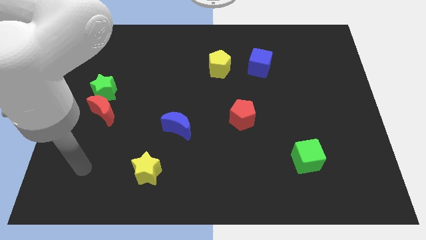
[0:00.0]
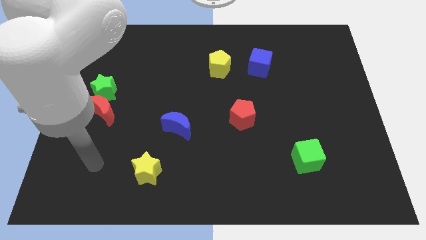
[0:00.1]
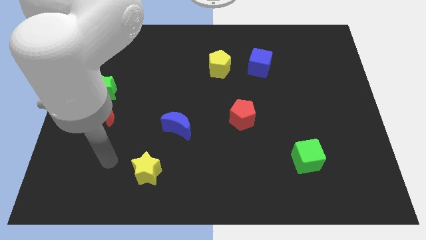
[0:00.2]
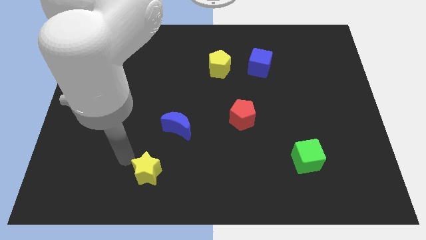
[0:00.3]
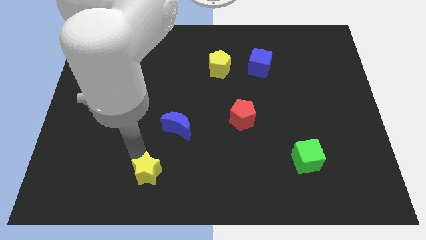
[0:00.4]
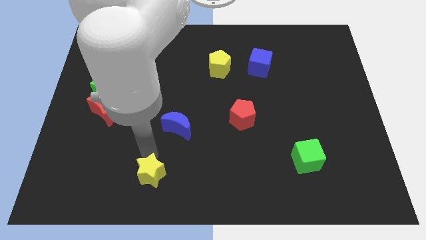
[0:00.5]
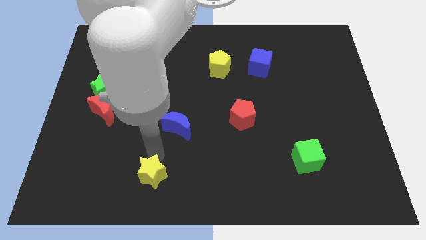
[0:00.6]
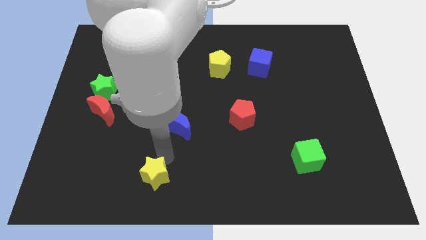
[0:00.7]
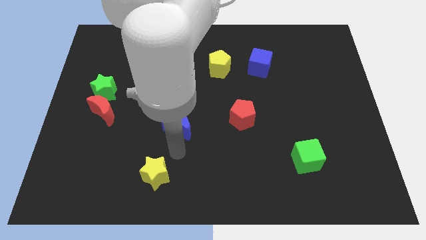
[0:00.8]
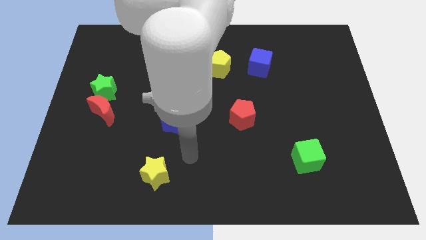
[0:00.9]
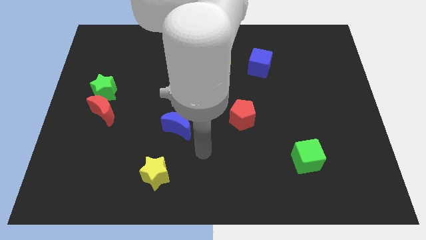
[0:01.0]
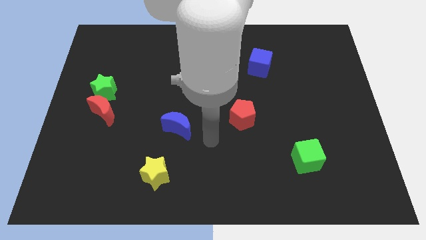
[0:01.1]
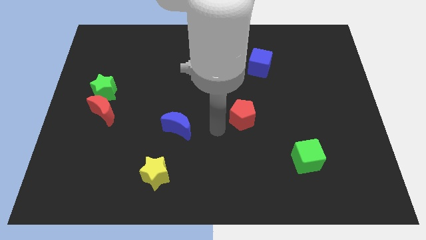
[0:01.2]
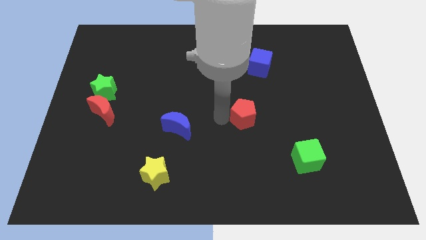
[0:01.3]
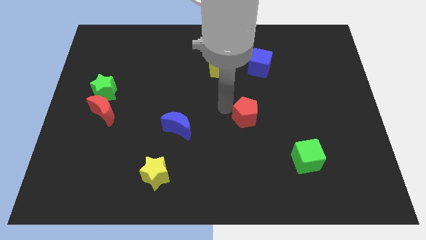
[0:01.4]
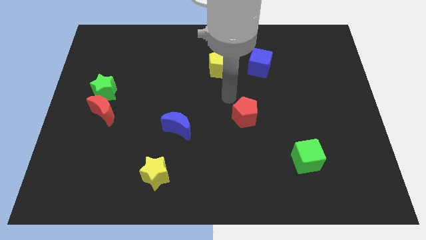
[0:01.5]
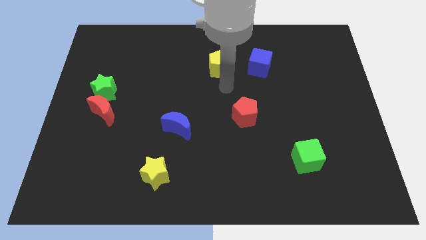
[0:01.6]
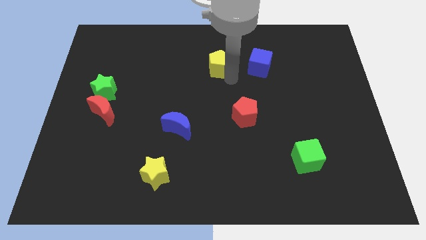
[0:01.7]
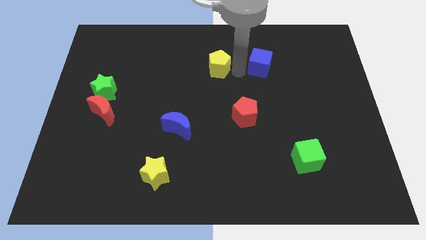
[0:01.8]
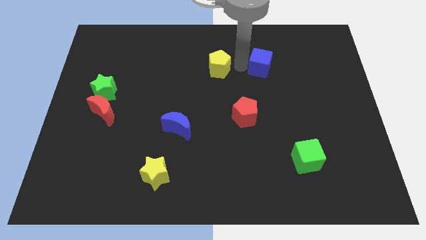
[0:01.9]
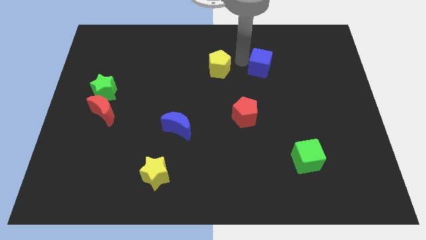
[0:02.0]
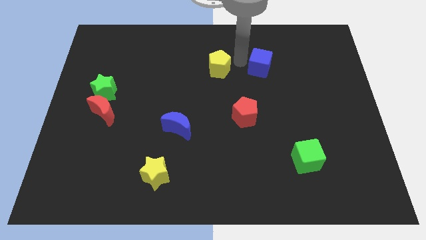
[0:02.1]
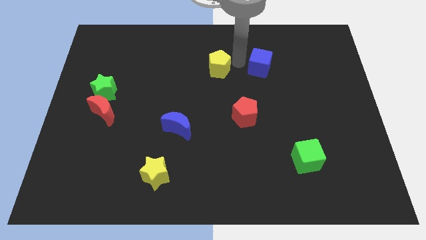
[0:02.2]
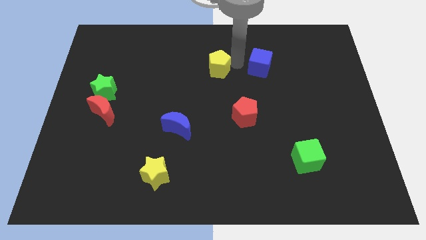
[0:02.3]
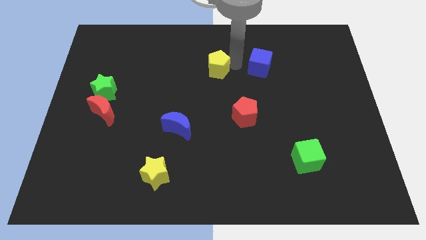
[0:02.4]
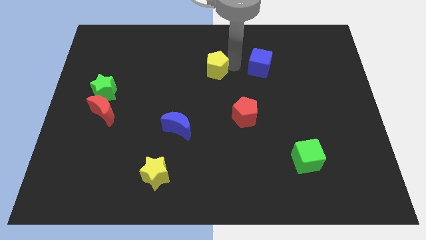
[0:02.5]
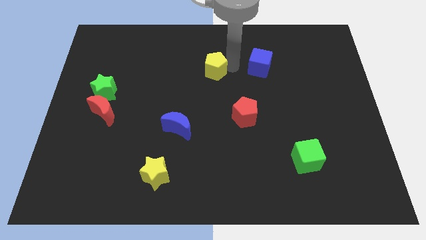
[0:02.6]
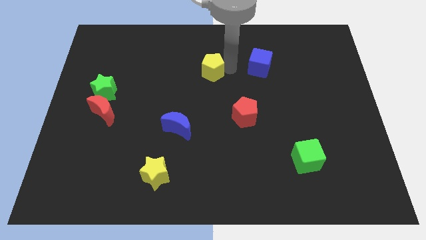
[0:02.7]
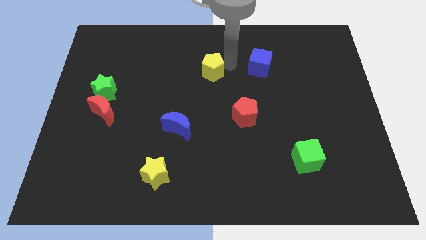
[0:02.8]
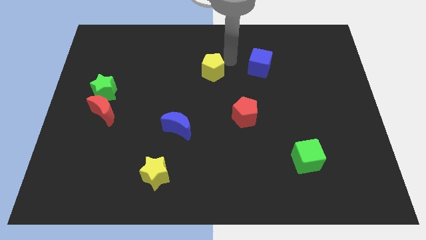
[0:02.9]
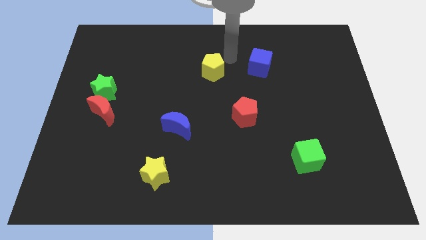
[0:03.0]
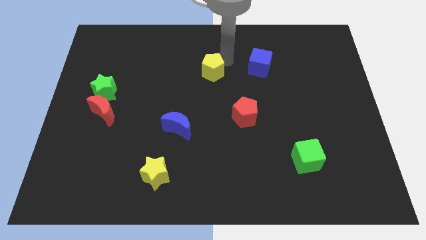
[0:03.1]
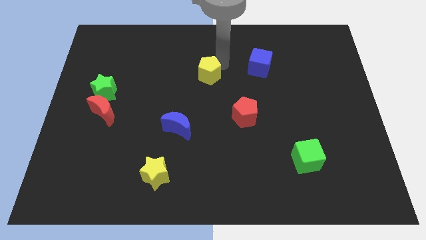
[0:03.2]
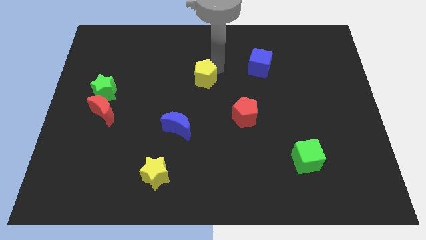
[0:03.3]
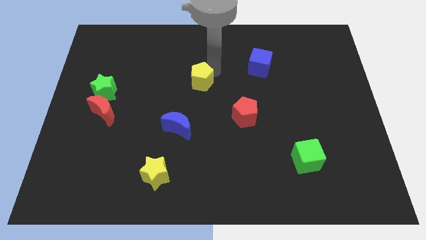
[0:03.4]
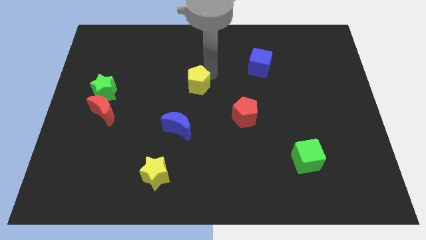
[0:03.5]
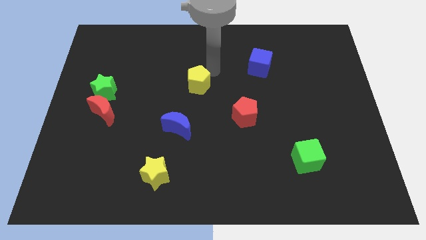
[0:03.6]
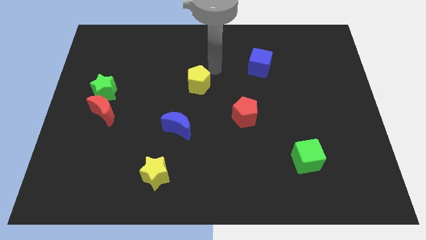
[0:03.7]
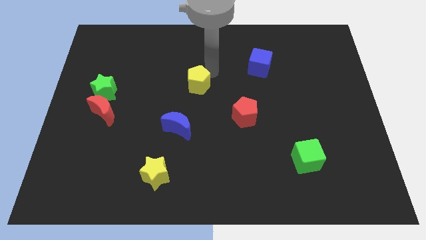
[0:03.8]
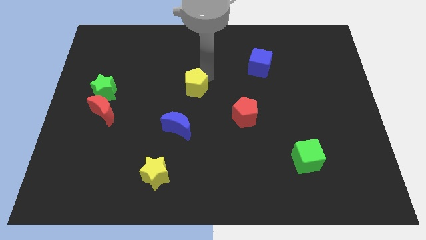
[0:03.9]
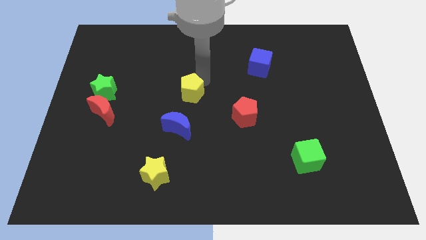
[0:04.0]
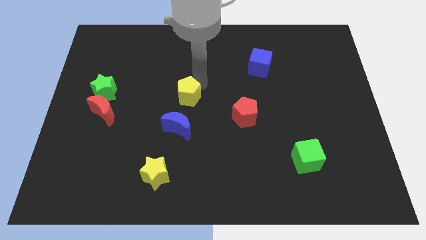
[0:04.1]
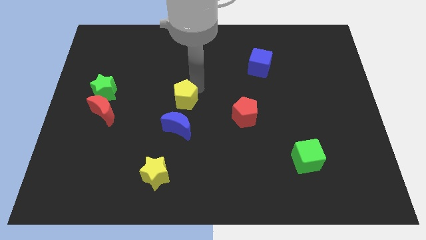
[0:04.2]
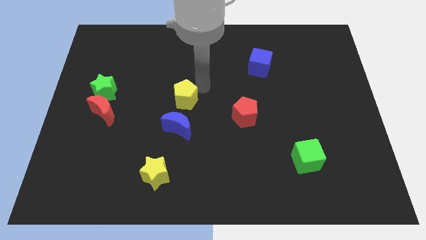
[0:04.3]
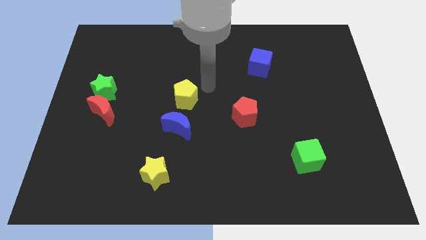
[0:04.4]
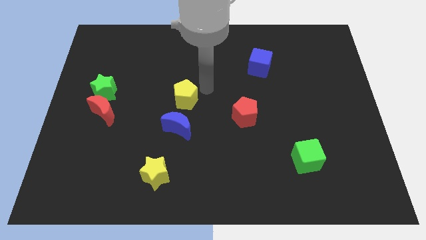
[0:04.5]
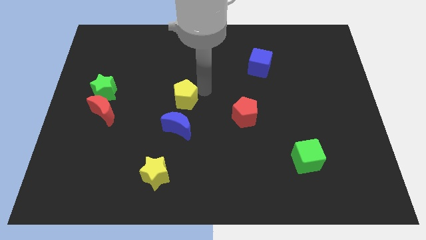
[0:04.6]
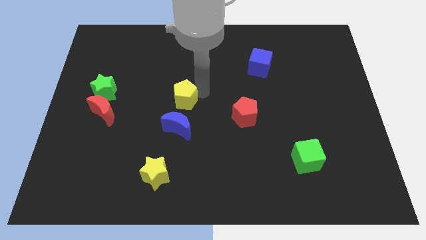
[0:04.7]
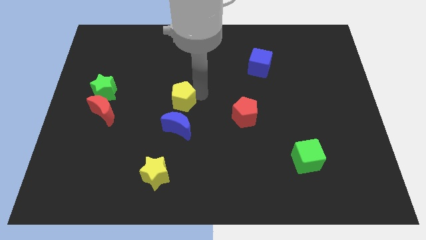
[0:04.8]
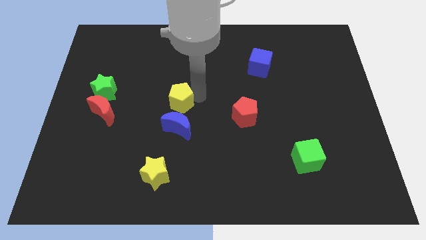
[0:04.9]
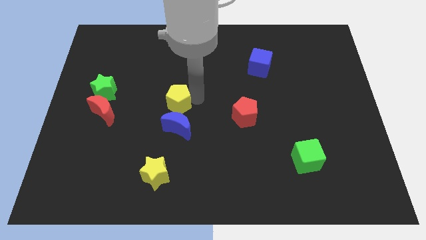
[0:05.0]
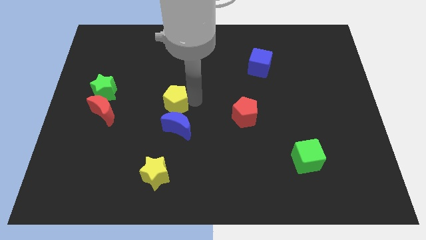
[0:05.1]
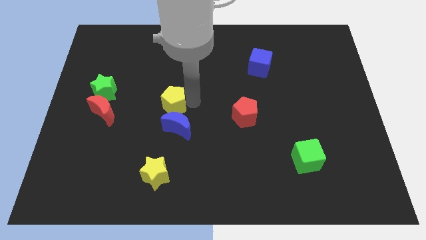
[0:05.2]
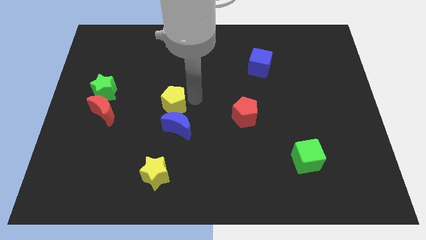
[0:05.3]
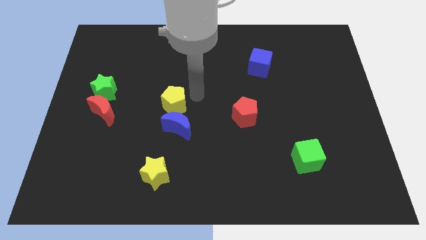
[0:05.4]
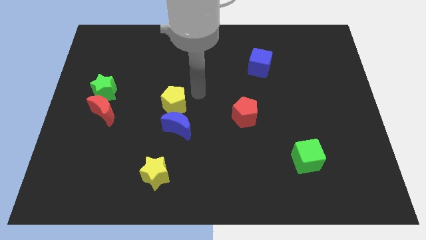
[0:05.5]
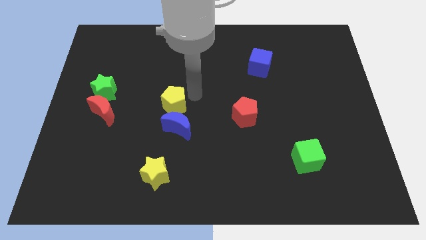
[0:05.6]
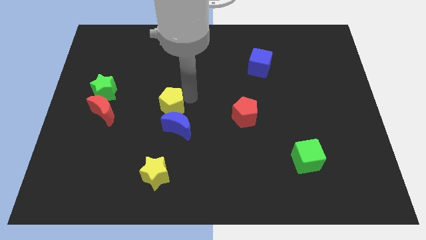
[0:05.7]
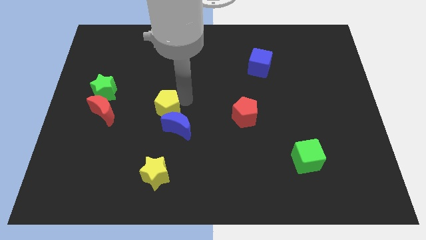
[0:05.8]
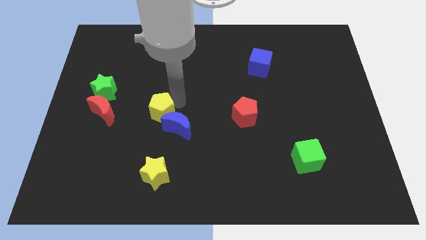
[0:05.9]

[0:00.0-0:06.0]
slide the yellow pentagon to the top side of the yellow star
